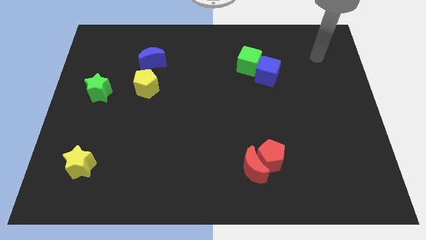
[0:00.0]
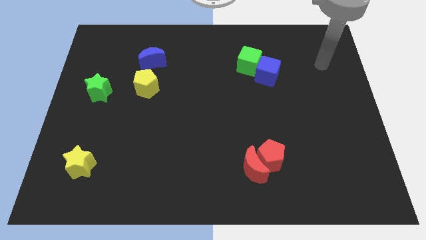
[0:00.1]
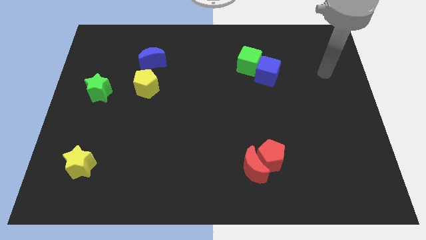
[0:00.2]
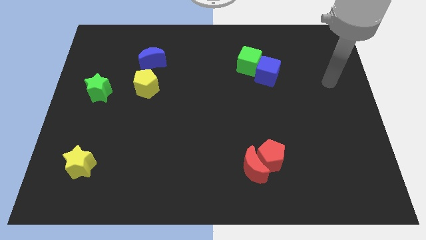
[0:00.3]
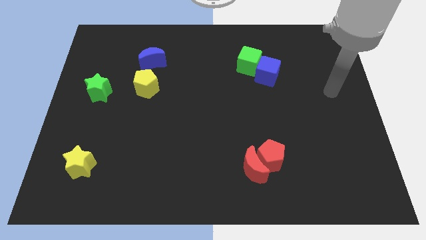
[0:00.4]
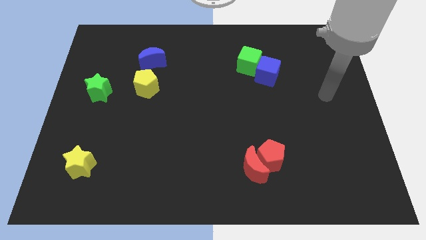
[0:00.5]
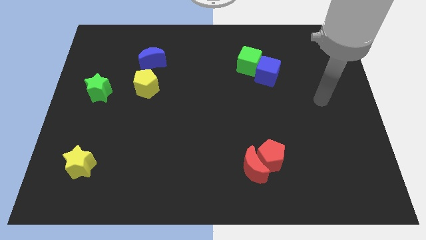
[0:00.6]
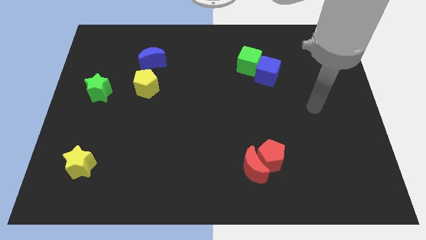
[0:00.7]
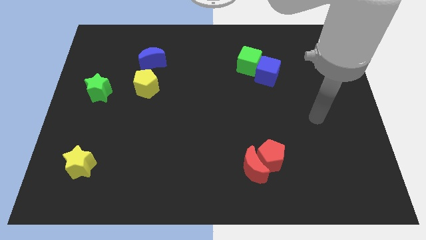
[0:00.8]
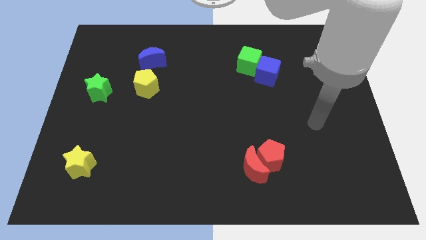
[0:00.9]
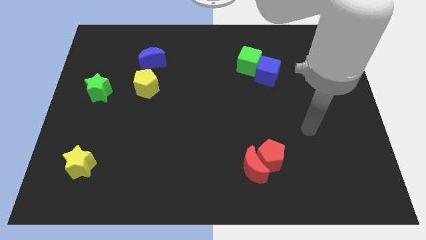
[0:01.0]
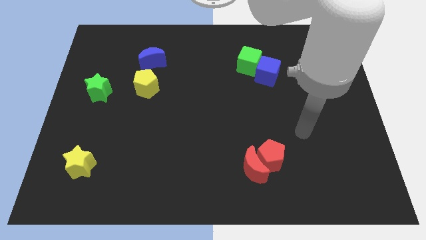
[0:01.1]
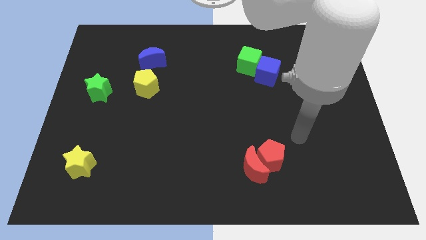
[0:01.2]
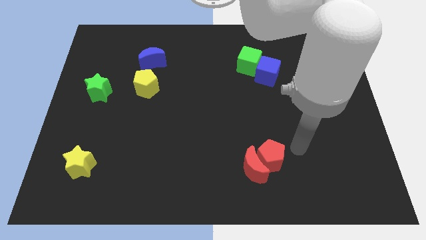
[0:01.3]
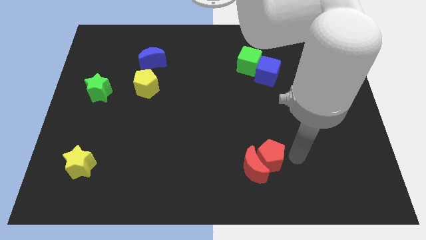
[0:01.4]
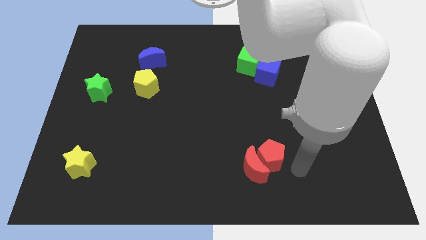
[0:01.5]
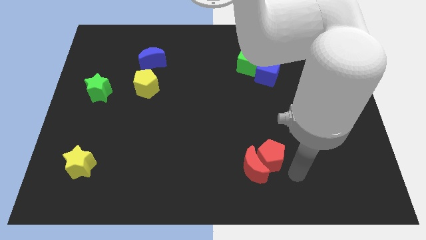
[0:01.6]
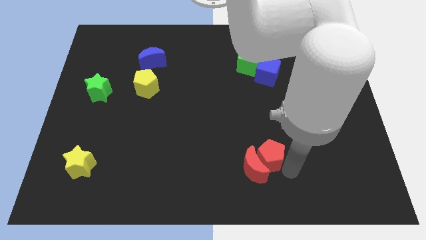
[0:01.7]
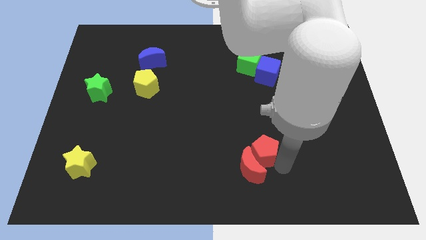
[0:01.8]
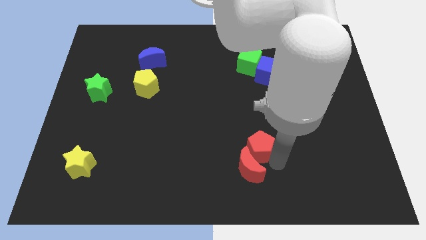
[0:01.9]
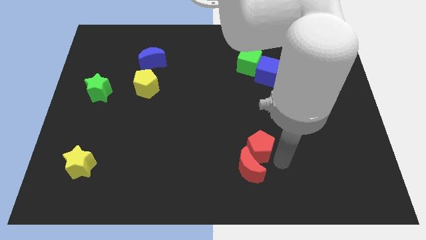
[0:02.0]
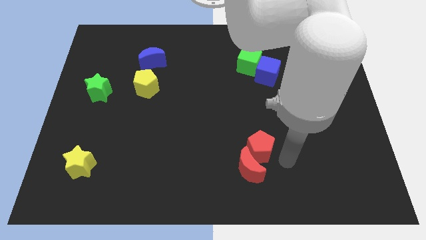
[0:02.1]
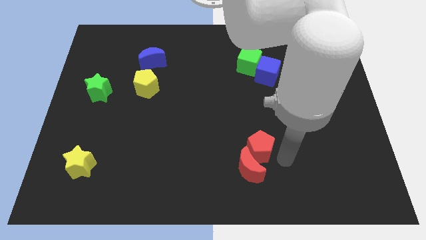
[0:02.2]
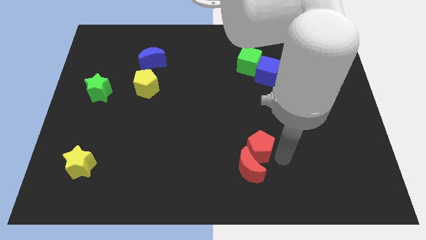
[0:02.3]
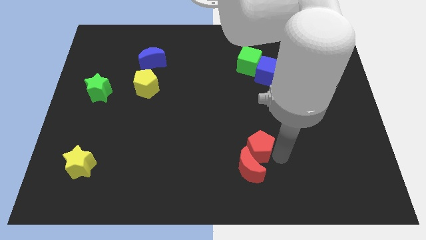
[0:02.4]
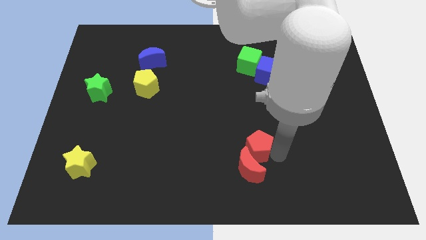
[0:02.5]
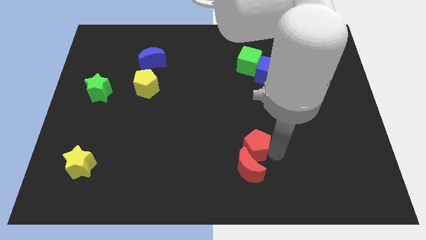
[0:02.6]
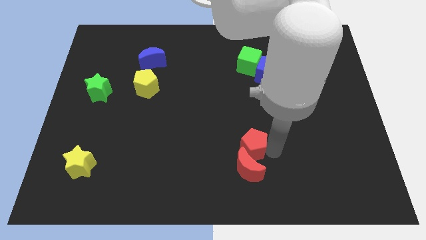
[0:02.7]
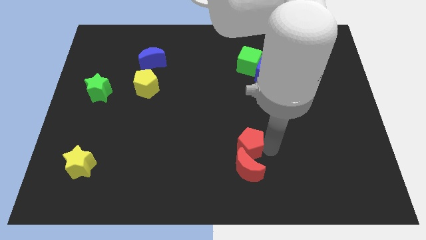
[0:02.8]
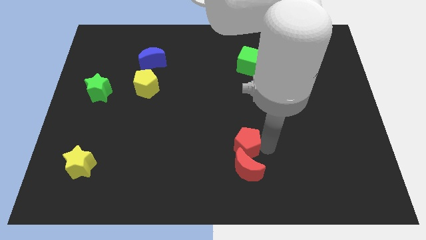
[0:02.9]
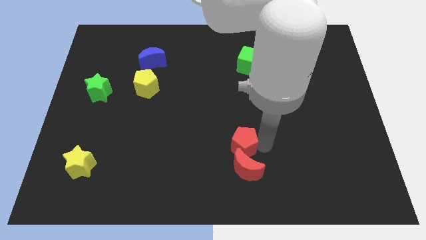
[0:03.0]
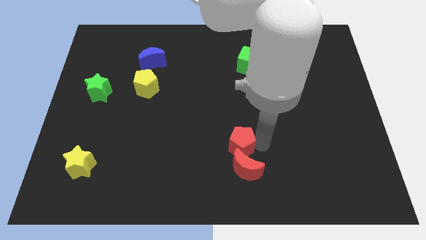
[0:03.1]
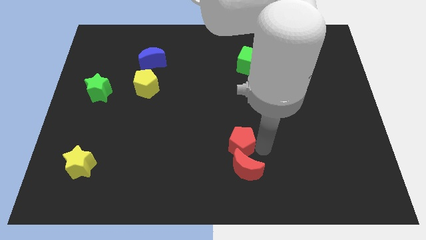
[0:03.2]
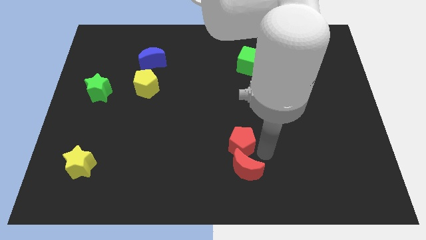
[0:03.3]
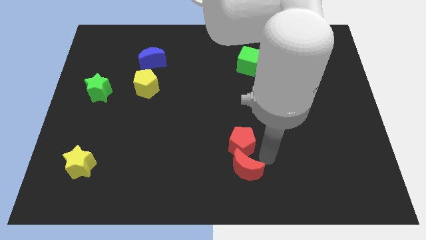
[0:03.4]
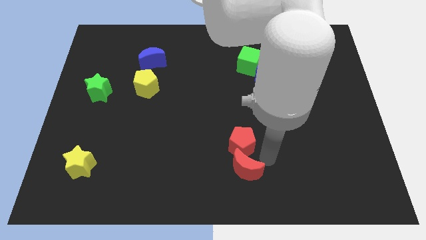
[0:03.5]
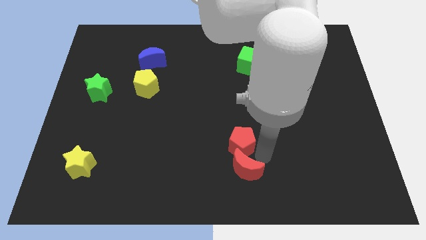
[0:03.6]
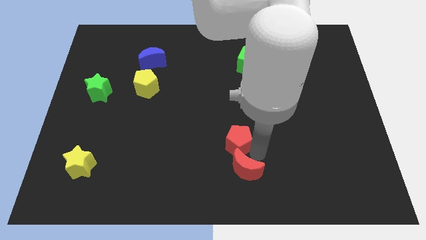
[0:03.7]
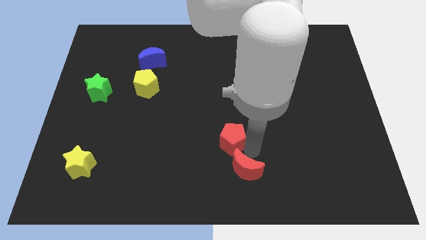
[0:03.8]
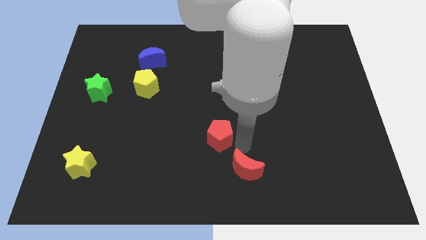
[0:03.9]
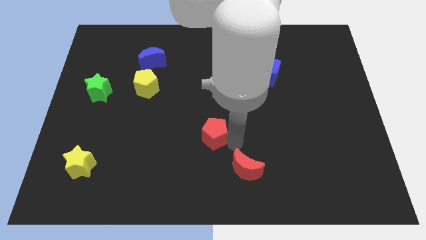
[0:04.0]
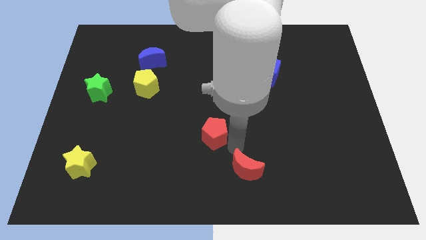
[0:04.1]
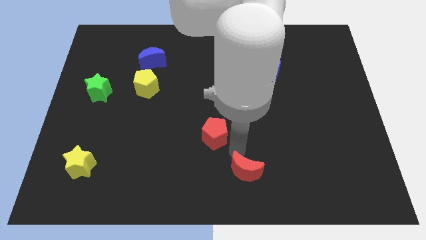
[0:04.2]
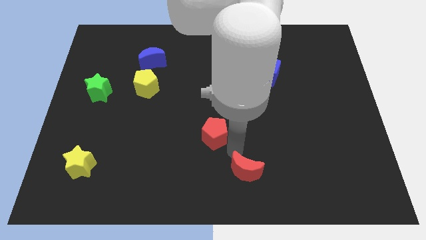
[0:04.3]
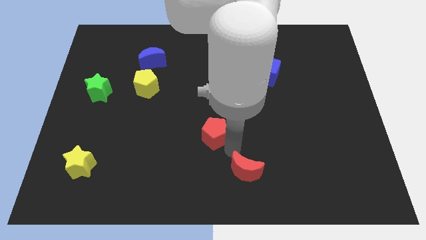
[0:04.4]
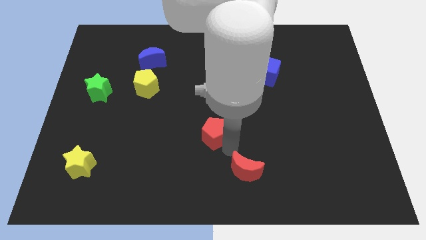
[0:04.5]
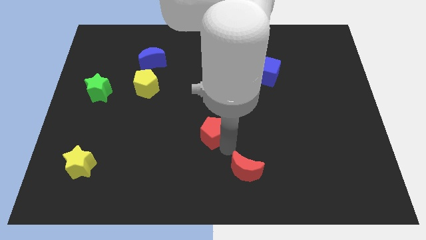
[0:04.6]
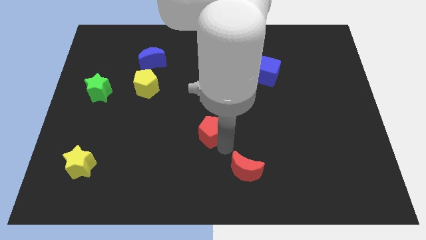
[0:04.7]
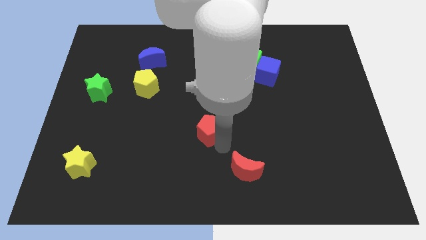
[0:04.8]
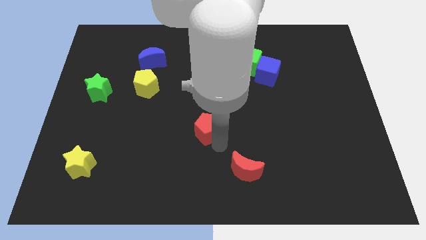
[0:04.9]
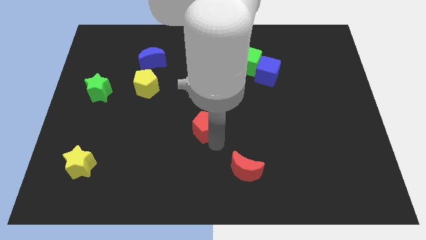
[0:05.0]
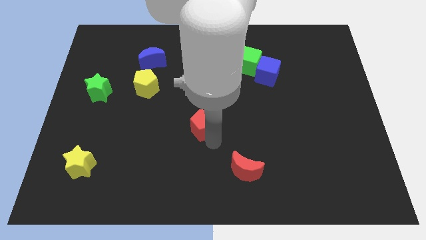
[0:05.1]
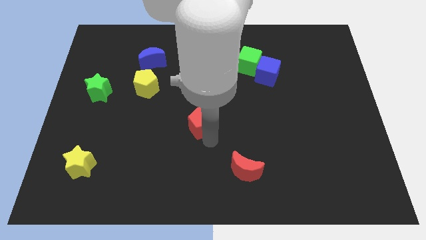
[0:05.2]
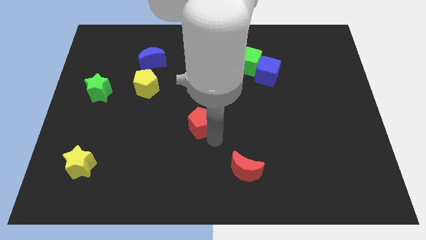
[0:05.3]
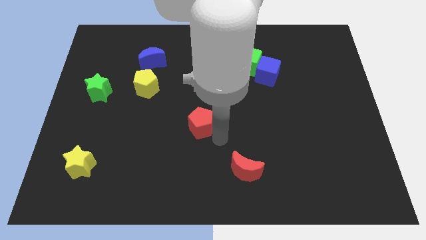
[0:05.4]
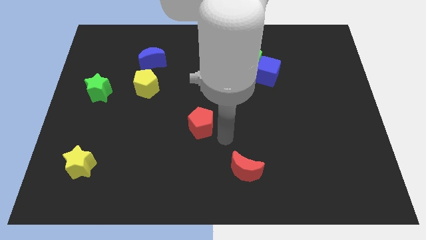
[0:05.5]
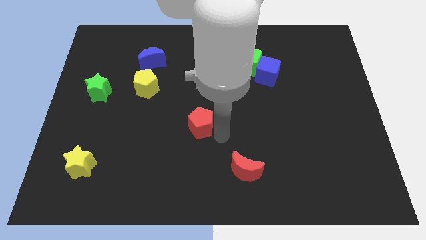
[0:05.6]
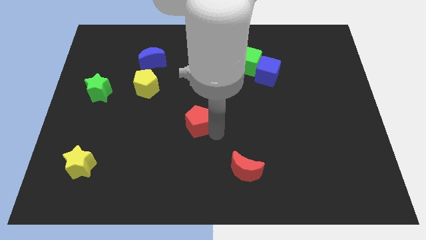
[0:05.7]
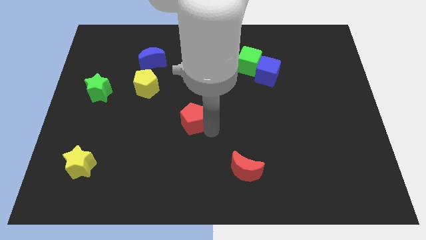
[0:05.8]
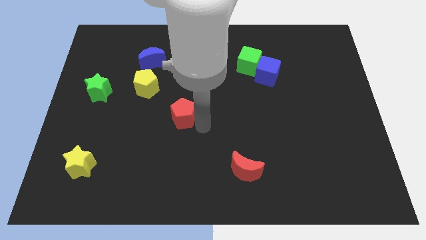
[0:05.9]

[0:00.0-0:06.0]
move the red pentagon to the bottom right of the yellow pentagon

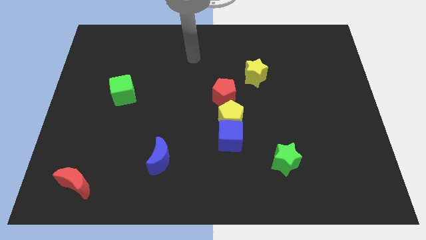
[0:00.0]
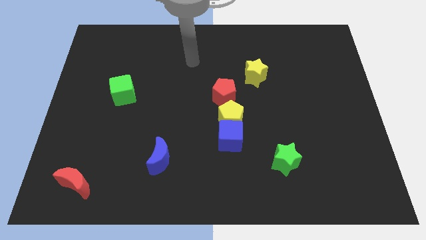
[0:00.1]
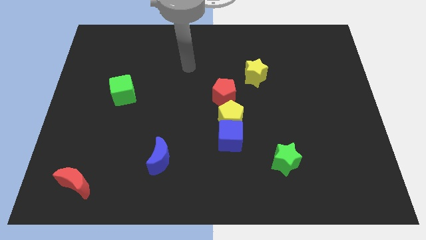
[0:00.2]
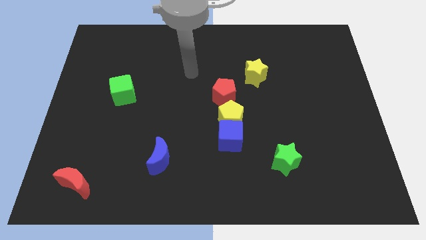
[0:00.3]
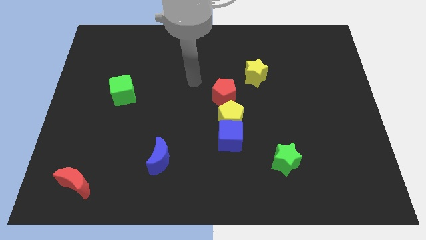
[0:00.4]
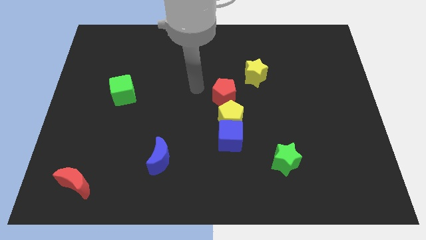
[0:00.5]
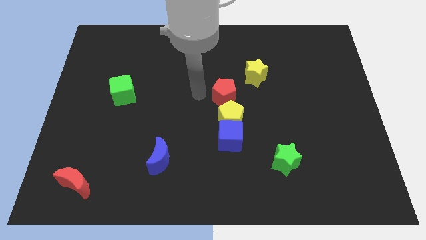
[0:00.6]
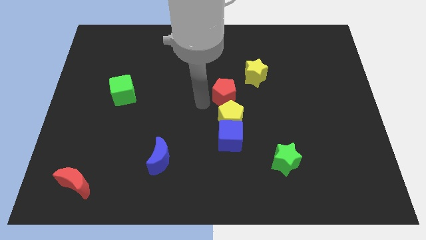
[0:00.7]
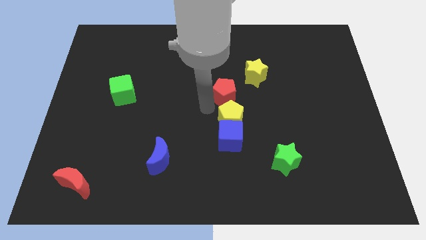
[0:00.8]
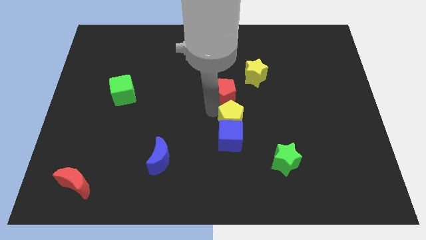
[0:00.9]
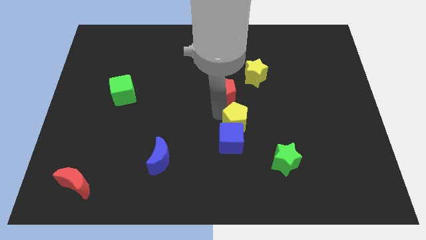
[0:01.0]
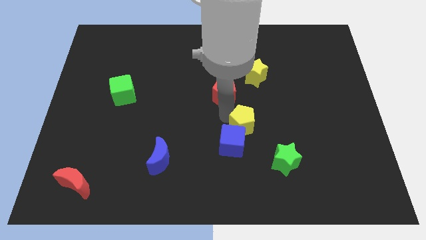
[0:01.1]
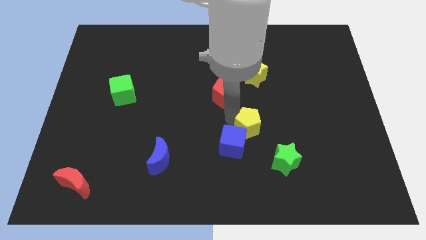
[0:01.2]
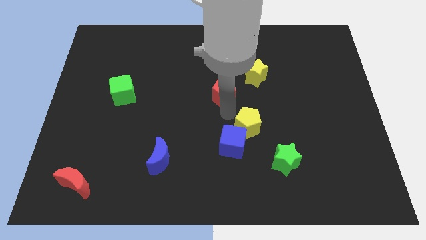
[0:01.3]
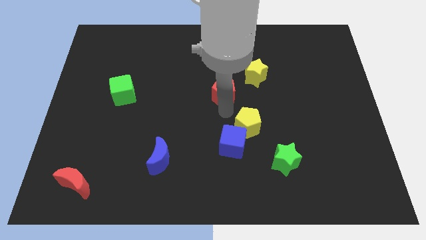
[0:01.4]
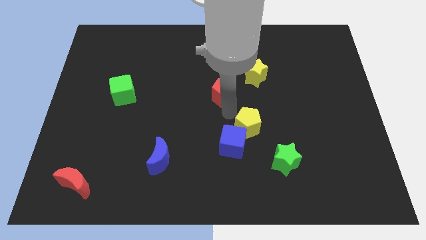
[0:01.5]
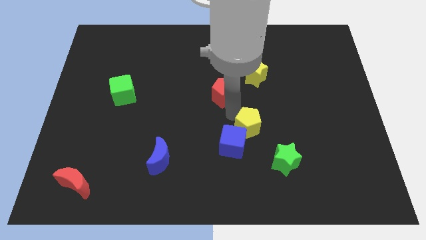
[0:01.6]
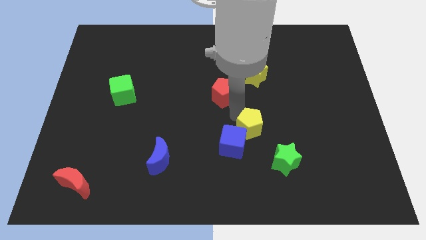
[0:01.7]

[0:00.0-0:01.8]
slide the yellow pentagon just right of the blue cube

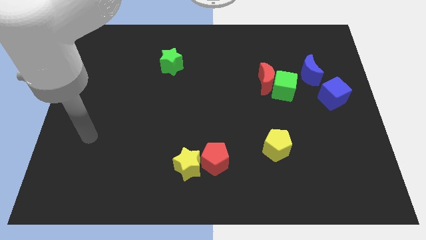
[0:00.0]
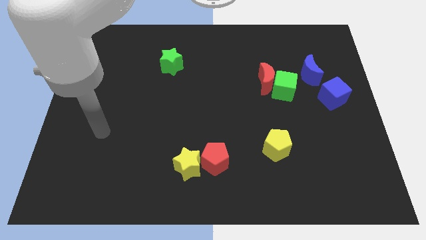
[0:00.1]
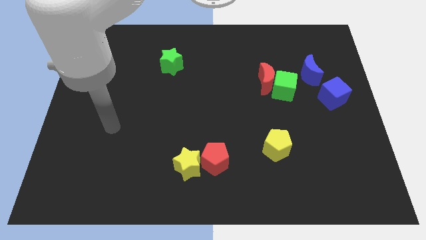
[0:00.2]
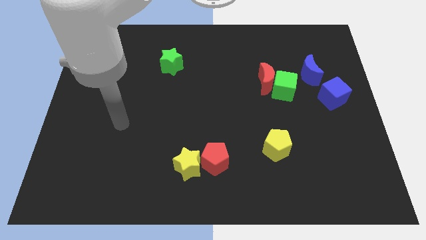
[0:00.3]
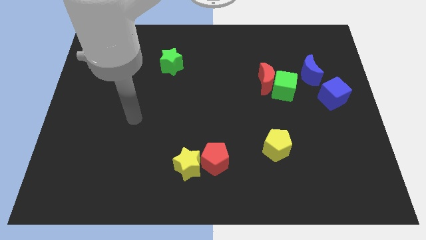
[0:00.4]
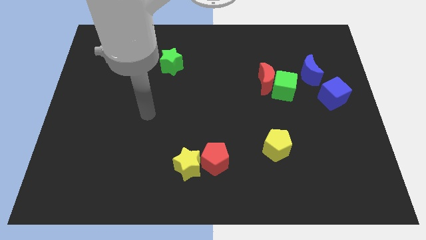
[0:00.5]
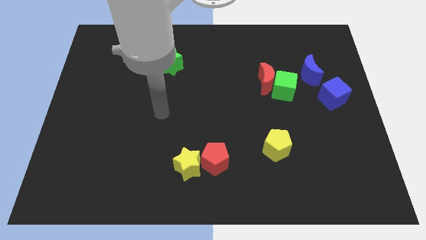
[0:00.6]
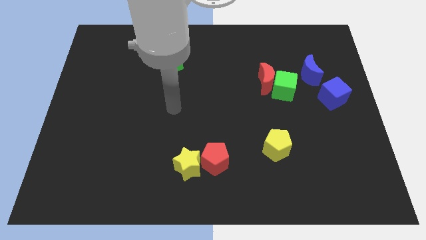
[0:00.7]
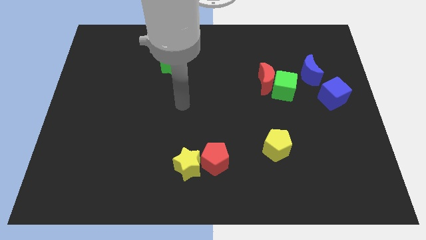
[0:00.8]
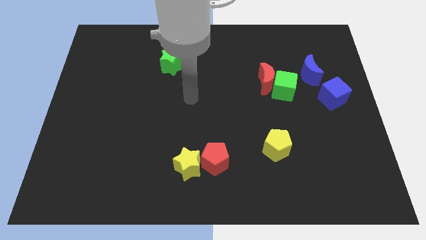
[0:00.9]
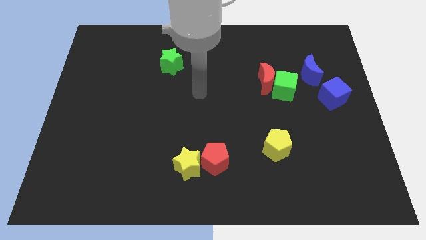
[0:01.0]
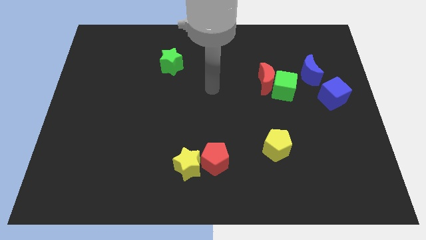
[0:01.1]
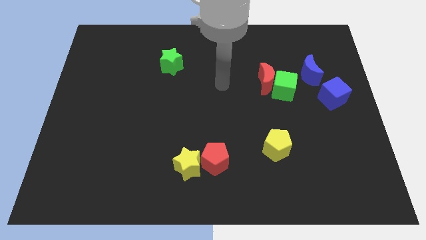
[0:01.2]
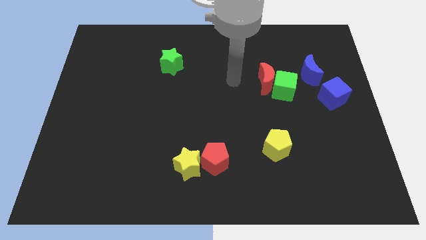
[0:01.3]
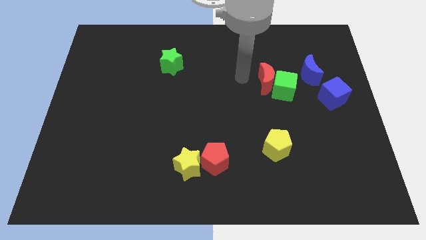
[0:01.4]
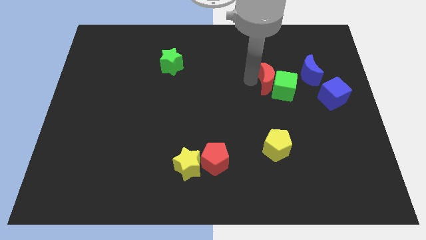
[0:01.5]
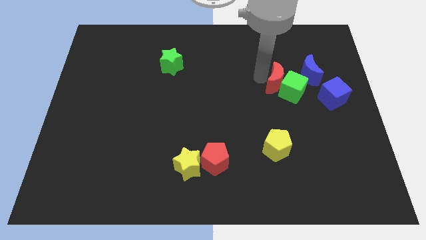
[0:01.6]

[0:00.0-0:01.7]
push the green cube below the blue moon
